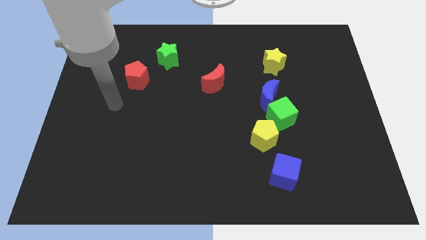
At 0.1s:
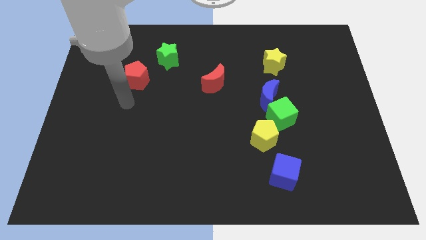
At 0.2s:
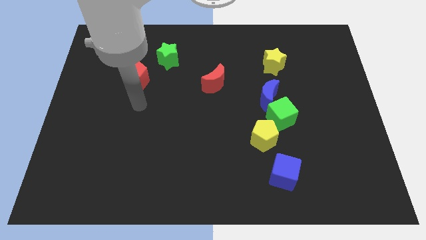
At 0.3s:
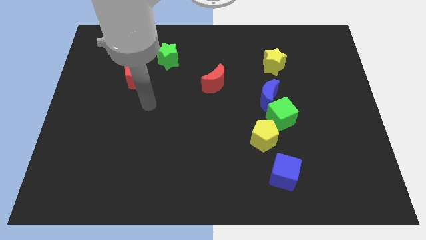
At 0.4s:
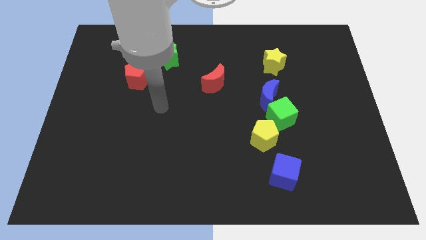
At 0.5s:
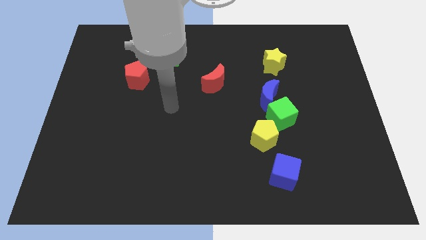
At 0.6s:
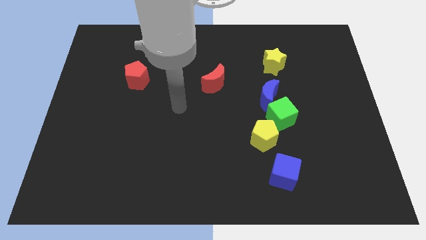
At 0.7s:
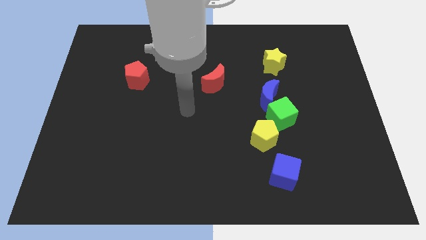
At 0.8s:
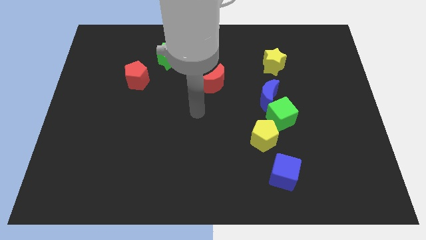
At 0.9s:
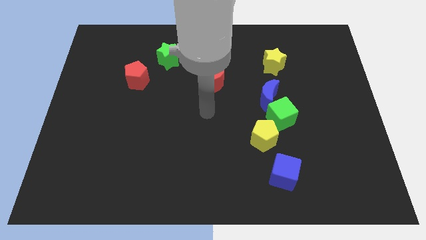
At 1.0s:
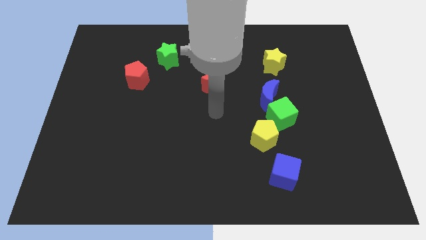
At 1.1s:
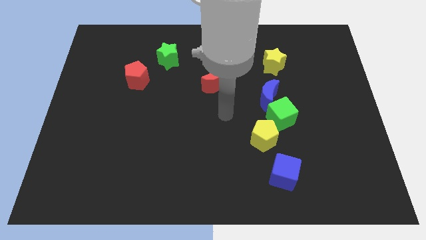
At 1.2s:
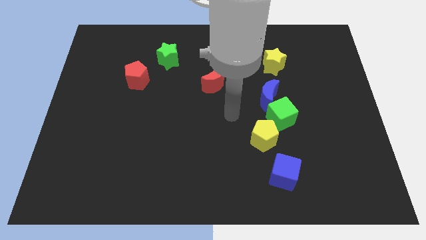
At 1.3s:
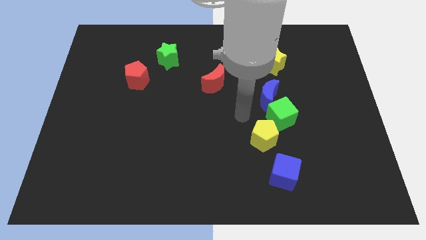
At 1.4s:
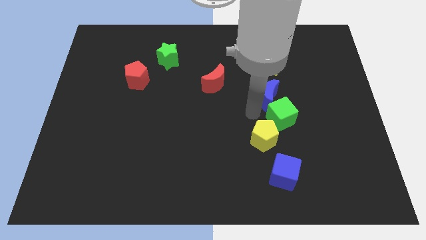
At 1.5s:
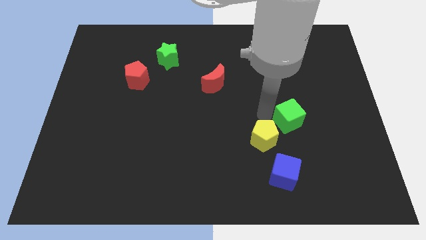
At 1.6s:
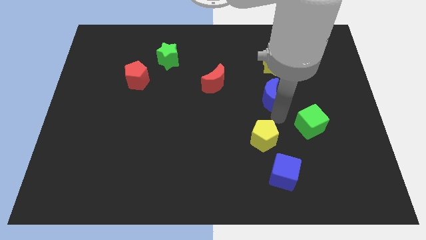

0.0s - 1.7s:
pull the blue moon apart from the green cube

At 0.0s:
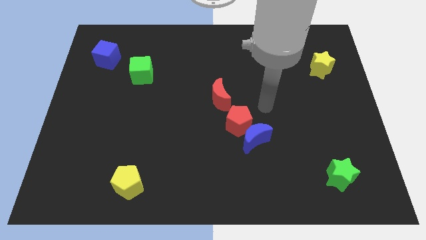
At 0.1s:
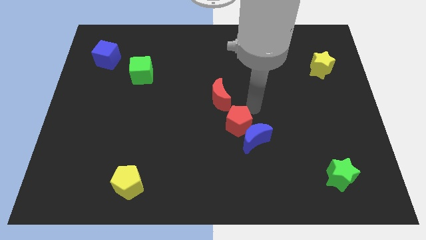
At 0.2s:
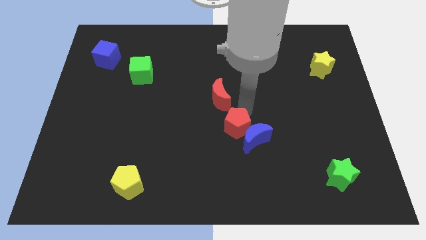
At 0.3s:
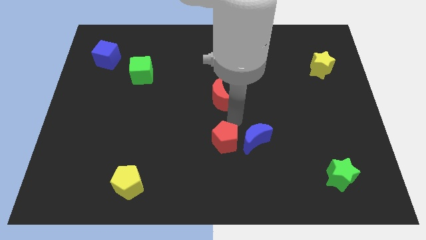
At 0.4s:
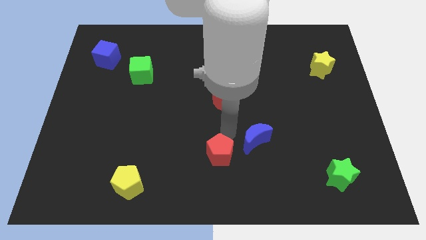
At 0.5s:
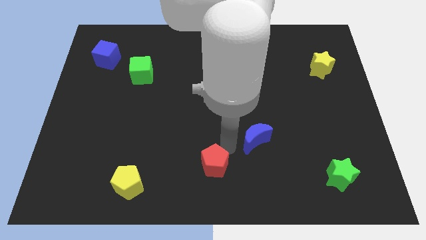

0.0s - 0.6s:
separate the blue moon from the red pentagon

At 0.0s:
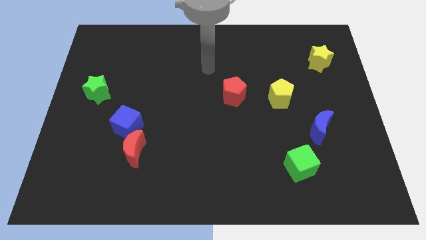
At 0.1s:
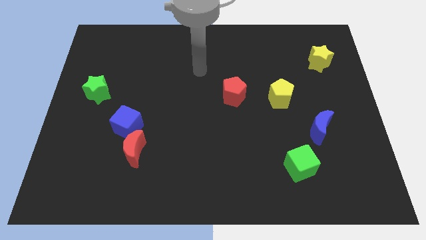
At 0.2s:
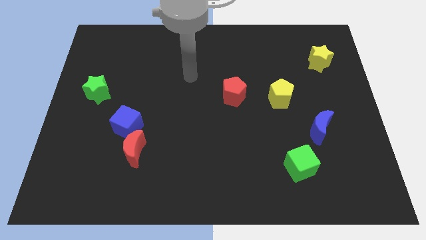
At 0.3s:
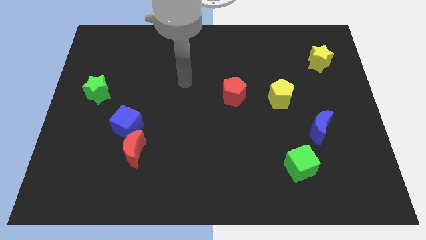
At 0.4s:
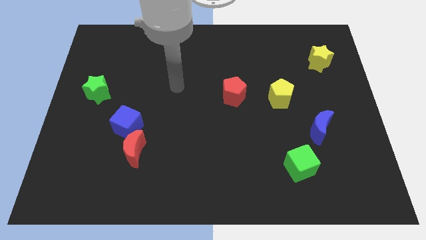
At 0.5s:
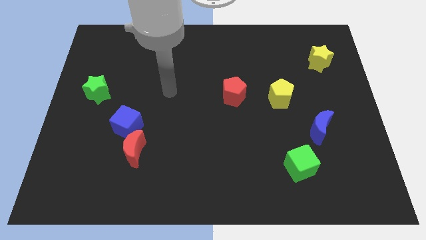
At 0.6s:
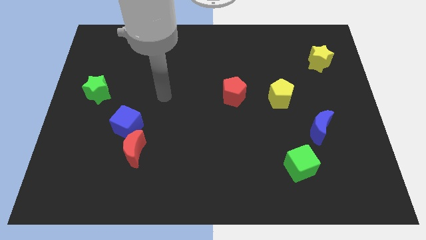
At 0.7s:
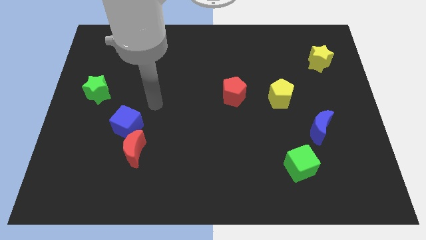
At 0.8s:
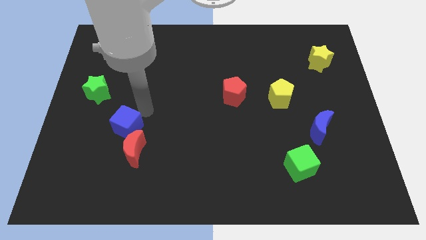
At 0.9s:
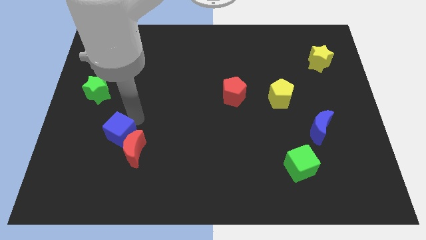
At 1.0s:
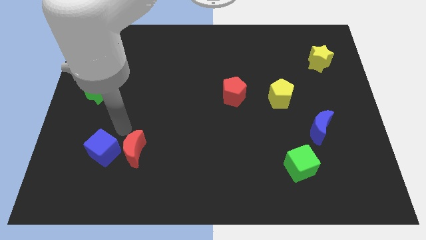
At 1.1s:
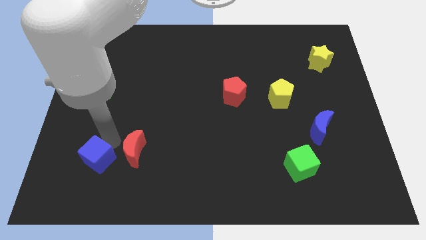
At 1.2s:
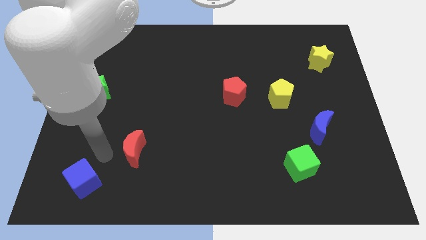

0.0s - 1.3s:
separate the red moon from the blue cube

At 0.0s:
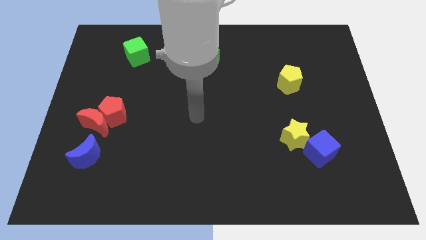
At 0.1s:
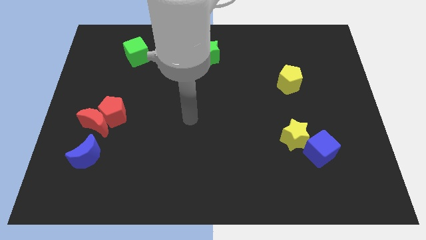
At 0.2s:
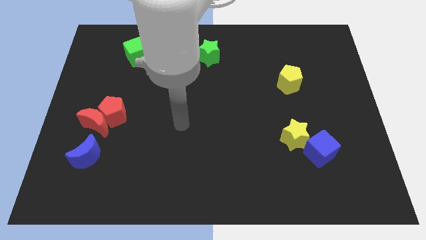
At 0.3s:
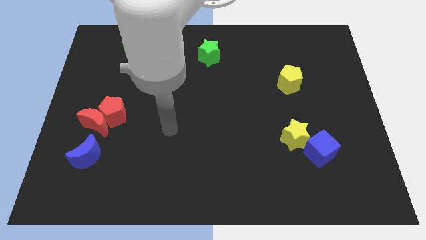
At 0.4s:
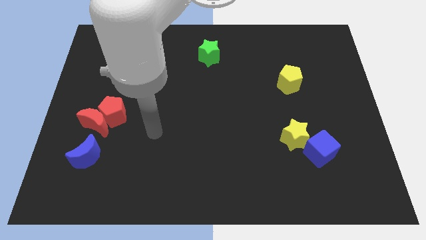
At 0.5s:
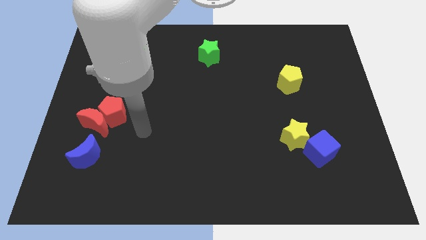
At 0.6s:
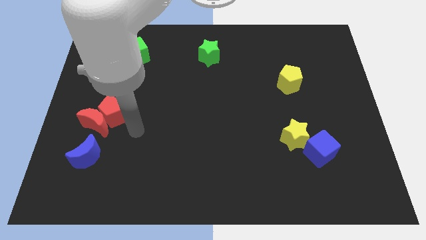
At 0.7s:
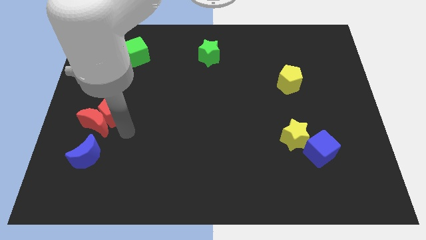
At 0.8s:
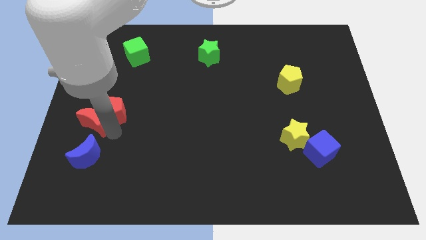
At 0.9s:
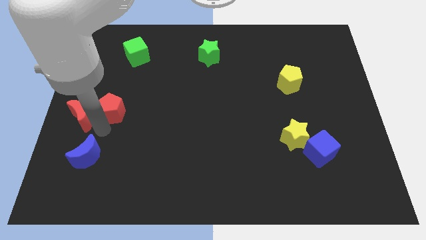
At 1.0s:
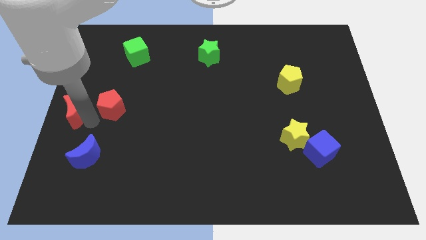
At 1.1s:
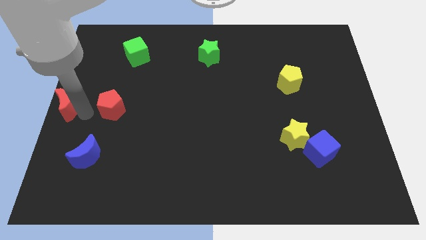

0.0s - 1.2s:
move the red pentagon away from the red moon

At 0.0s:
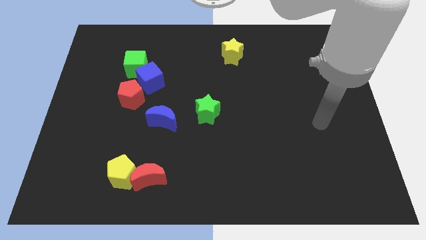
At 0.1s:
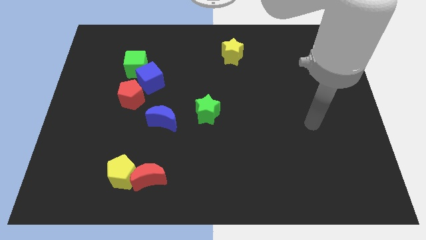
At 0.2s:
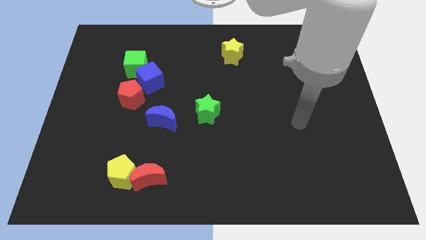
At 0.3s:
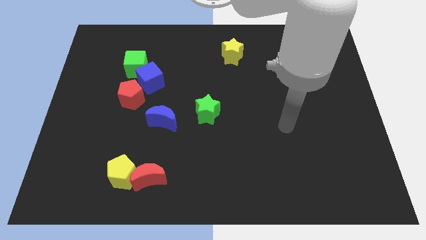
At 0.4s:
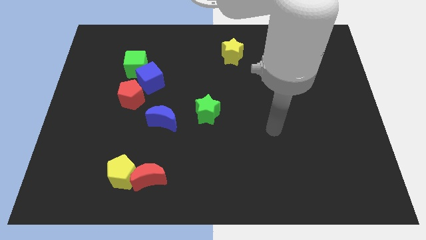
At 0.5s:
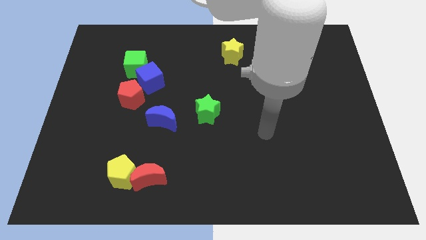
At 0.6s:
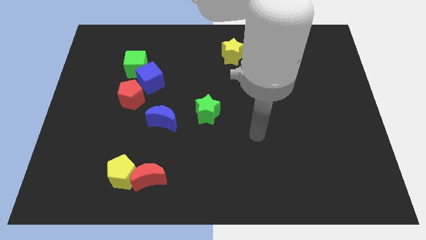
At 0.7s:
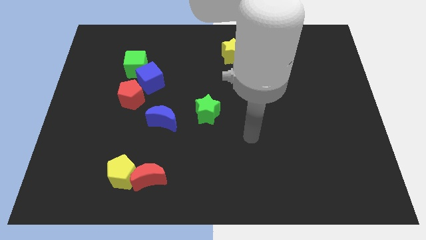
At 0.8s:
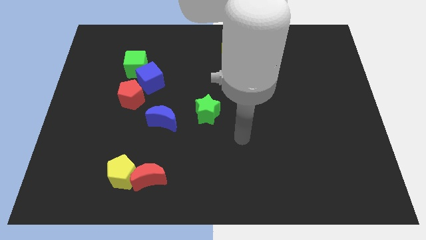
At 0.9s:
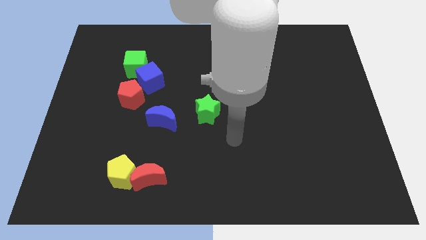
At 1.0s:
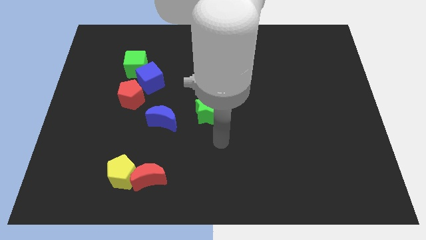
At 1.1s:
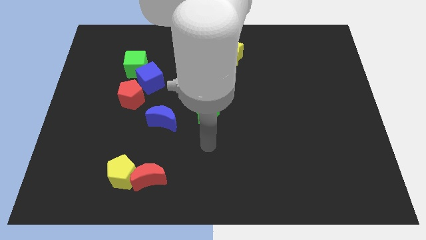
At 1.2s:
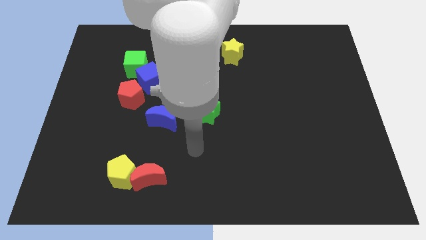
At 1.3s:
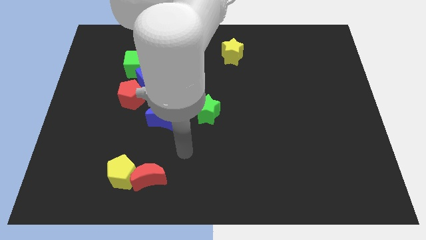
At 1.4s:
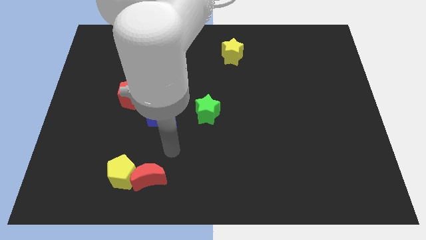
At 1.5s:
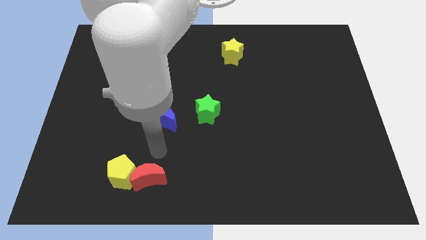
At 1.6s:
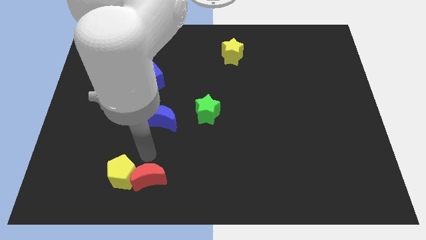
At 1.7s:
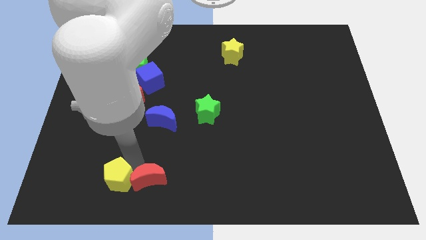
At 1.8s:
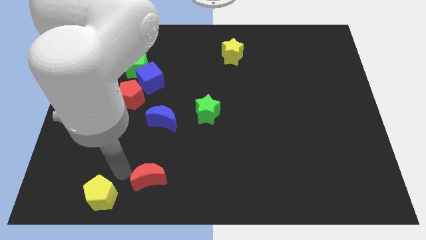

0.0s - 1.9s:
pull the red moon apart from the yellow pentagon

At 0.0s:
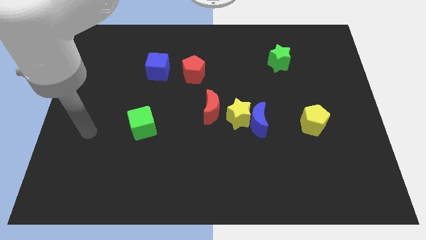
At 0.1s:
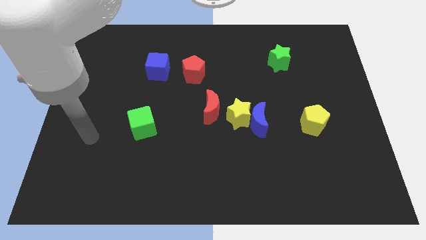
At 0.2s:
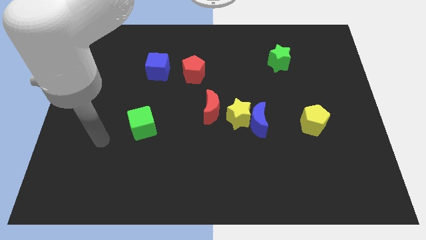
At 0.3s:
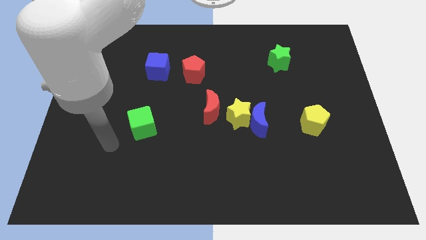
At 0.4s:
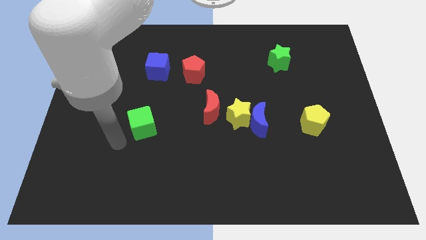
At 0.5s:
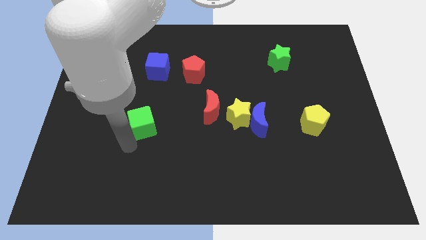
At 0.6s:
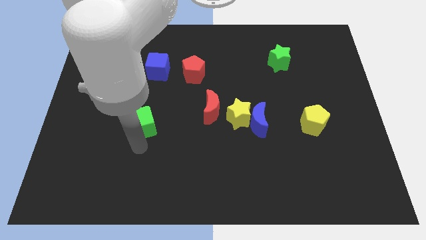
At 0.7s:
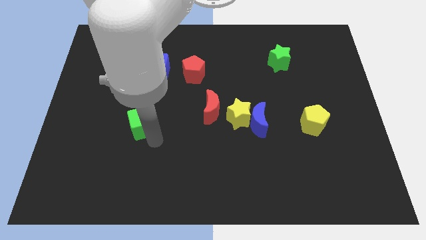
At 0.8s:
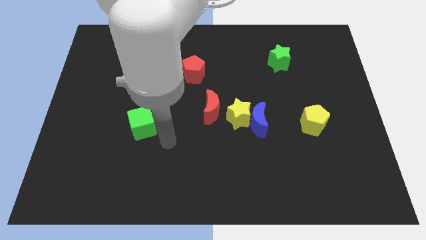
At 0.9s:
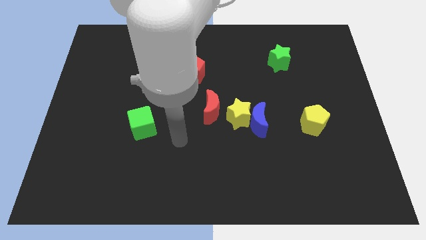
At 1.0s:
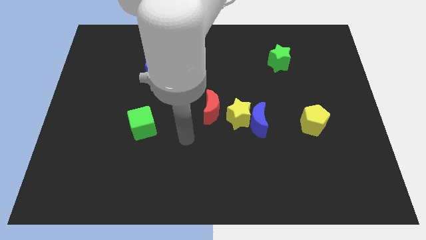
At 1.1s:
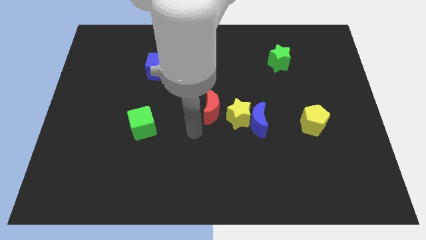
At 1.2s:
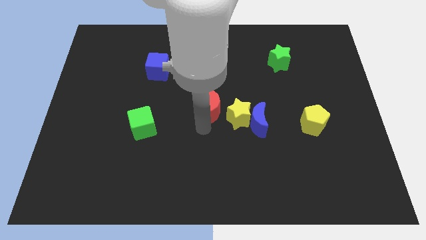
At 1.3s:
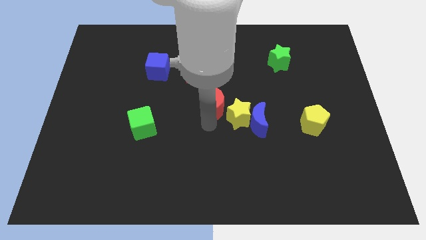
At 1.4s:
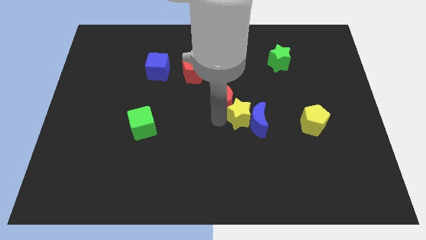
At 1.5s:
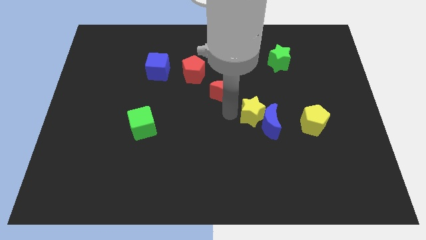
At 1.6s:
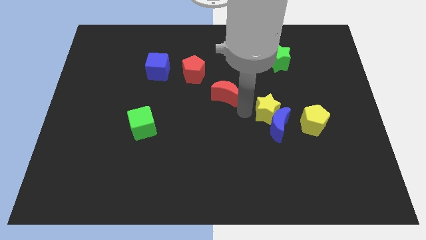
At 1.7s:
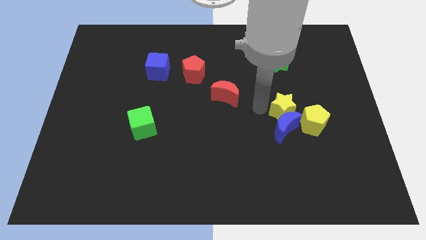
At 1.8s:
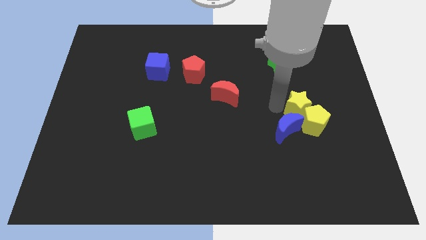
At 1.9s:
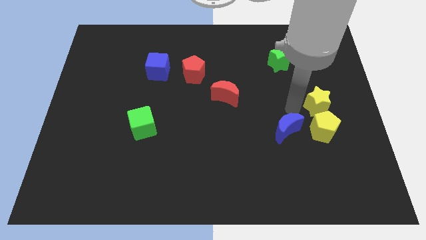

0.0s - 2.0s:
pull the blue moon apart from the yellow star

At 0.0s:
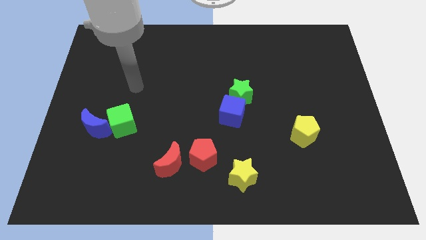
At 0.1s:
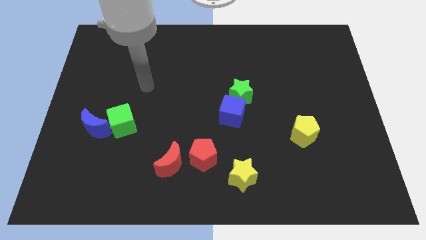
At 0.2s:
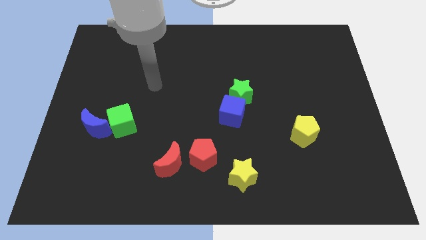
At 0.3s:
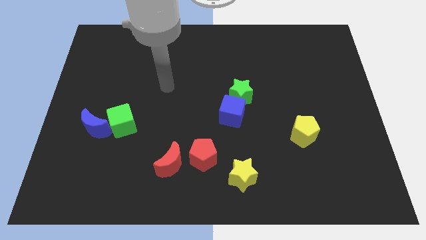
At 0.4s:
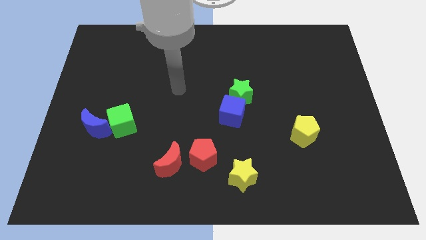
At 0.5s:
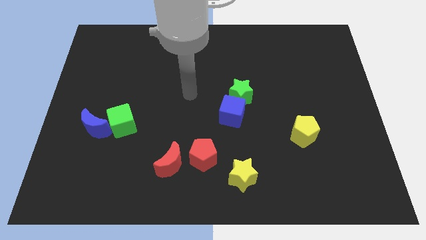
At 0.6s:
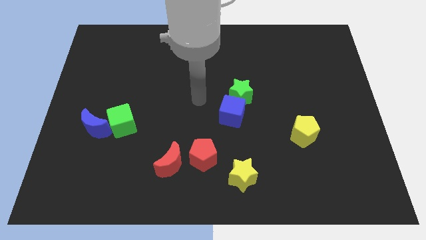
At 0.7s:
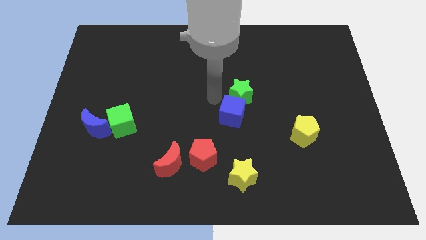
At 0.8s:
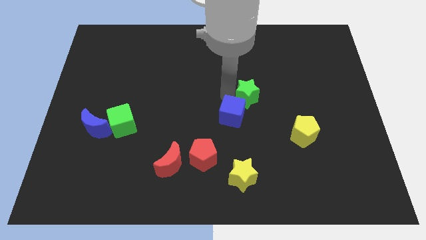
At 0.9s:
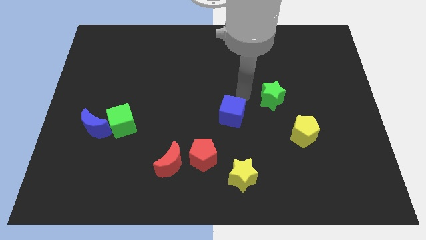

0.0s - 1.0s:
separate the blue cube from the green star
